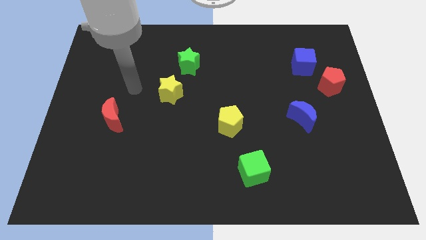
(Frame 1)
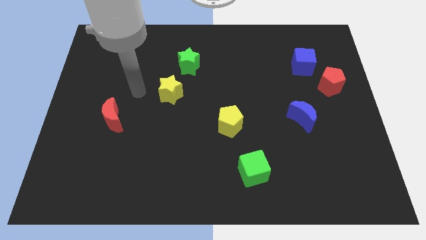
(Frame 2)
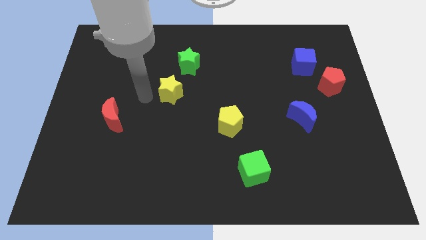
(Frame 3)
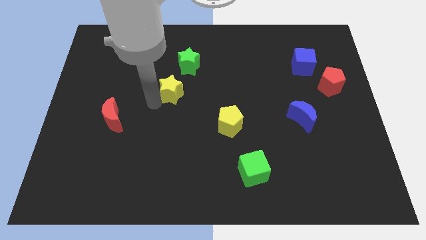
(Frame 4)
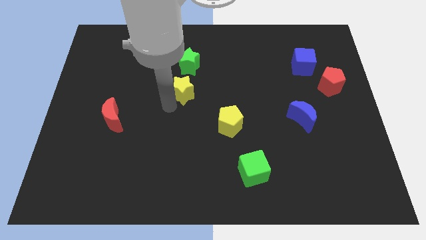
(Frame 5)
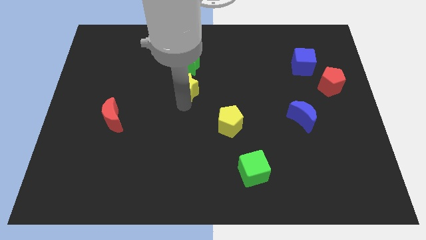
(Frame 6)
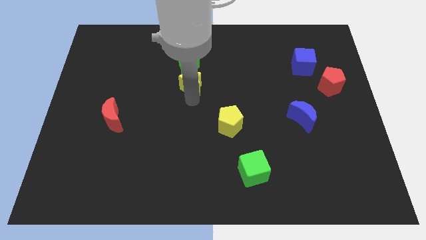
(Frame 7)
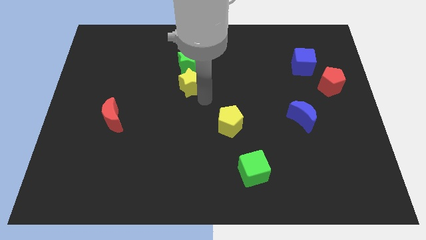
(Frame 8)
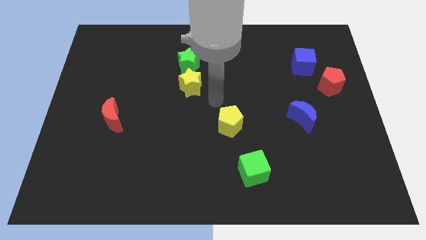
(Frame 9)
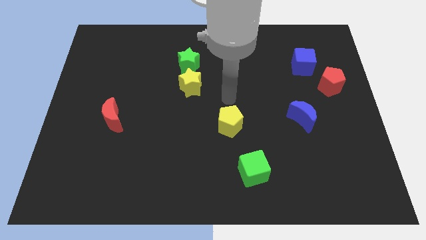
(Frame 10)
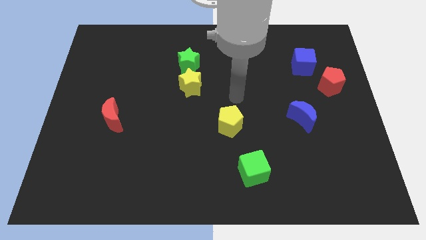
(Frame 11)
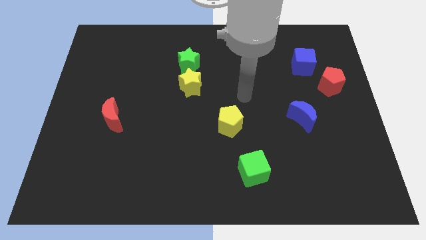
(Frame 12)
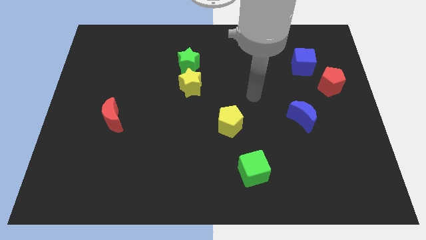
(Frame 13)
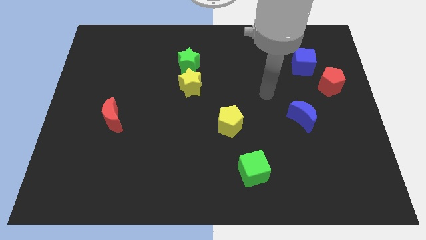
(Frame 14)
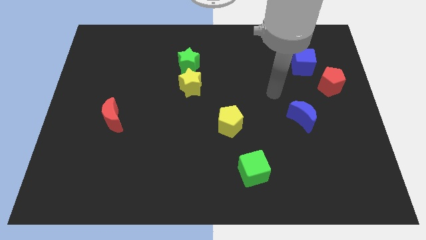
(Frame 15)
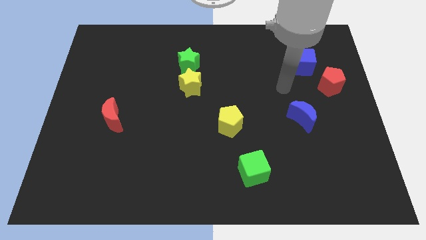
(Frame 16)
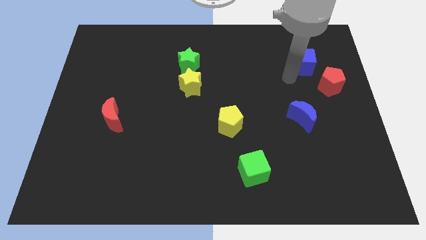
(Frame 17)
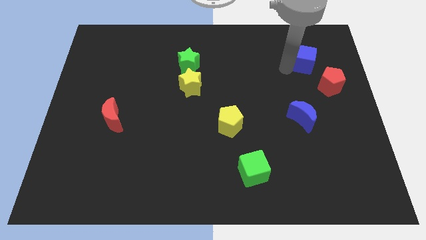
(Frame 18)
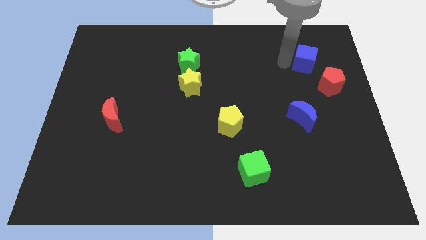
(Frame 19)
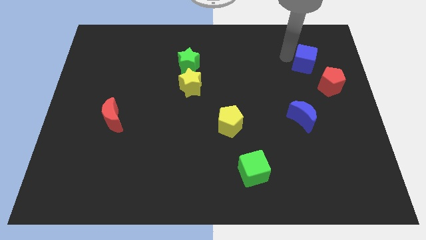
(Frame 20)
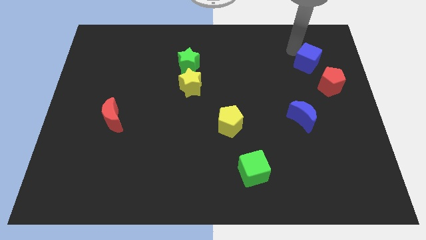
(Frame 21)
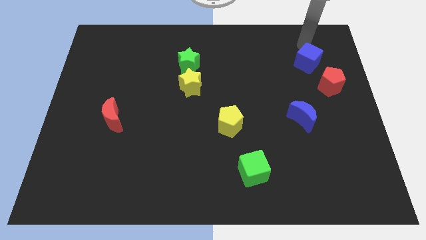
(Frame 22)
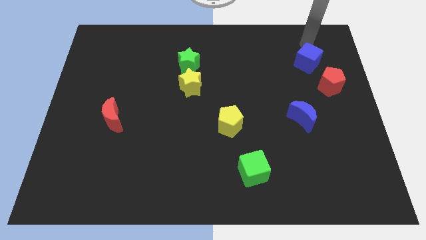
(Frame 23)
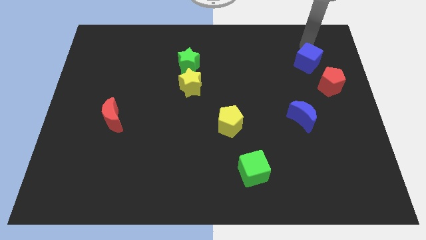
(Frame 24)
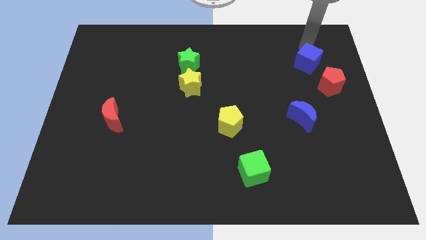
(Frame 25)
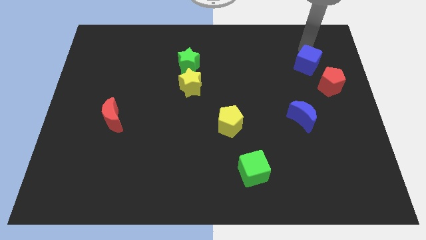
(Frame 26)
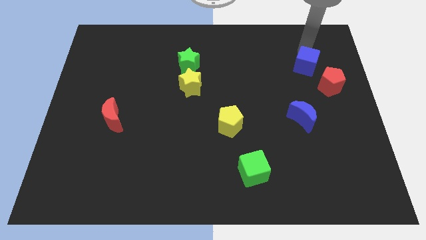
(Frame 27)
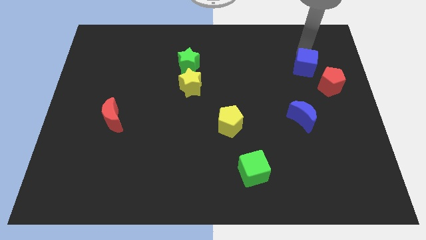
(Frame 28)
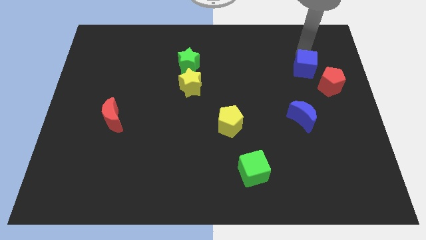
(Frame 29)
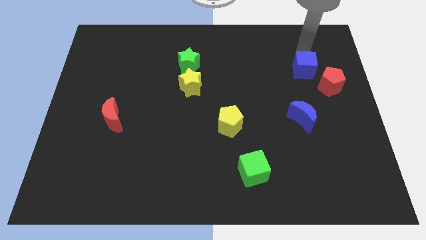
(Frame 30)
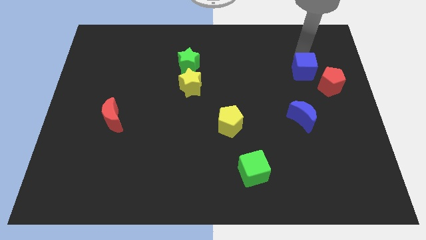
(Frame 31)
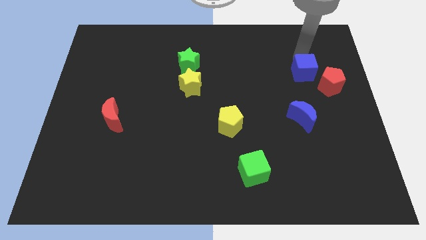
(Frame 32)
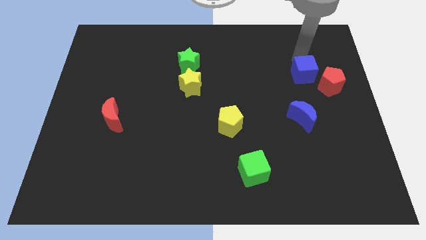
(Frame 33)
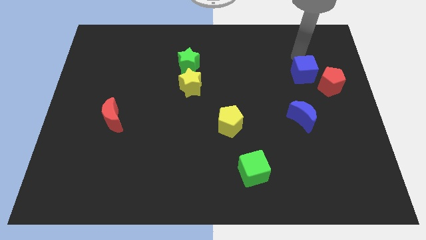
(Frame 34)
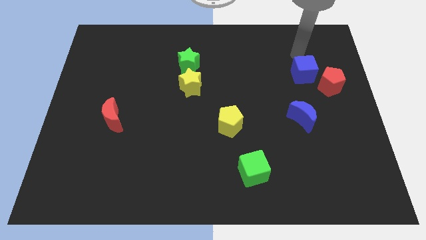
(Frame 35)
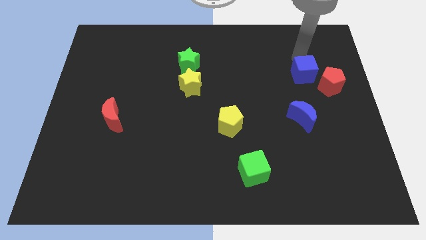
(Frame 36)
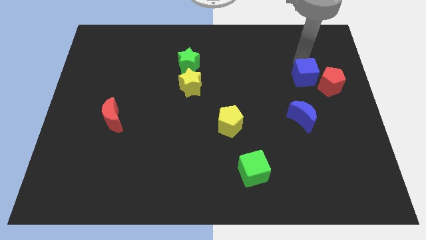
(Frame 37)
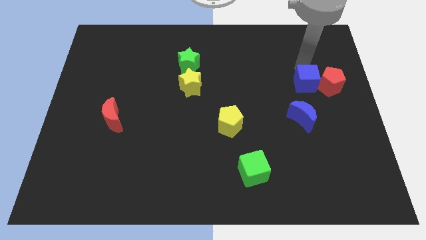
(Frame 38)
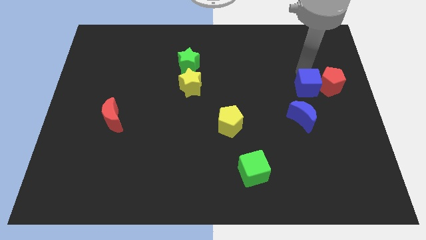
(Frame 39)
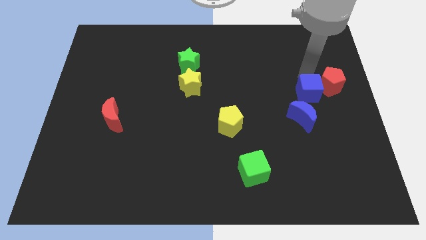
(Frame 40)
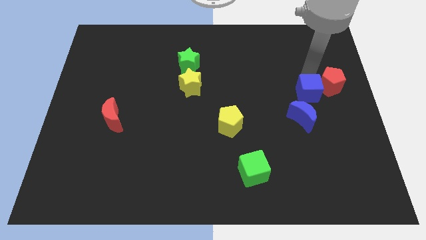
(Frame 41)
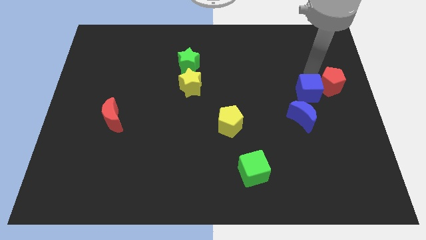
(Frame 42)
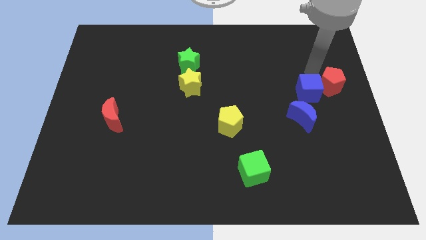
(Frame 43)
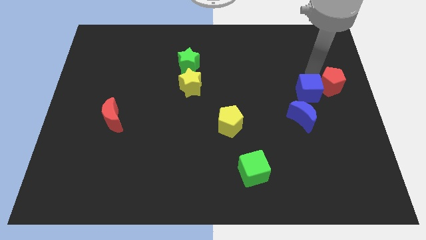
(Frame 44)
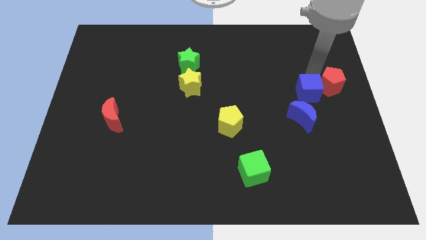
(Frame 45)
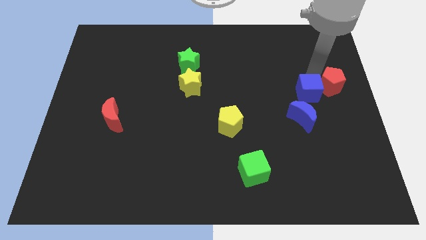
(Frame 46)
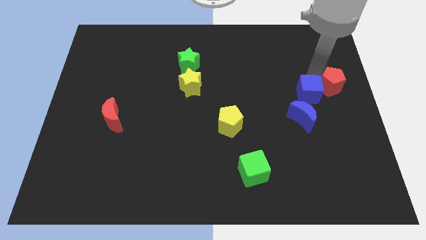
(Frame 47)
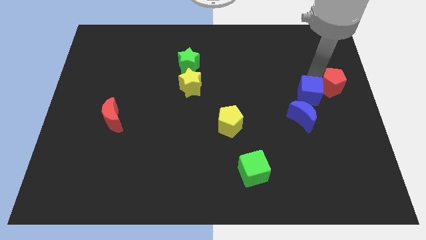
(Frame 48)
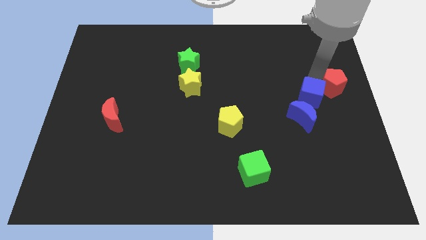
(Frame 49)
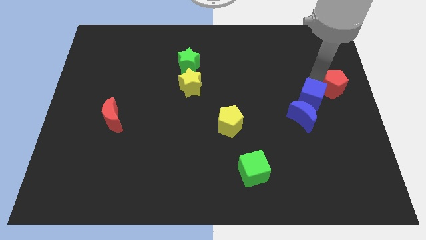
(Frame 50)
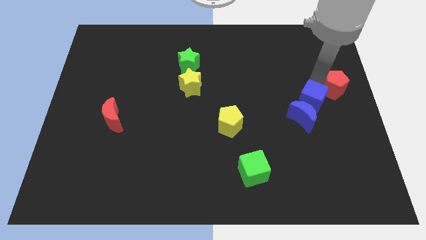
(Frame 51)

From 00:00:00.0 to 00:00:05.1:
push the blue cube to the blue moon

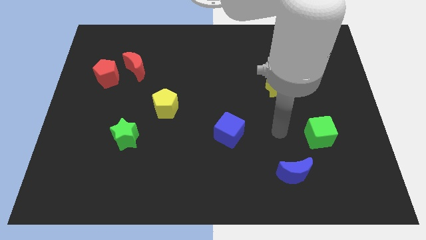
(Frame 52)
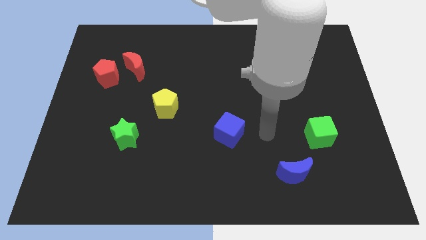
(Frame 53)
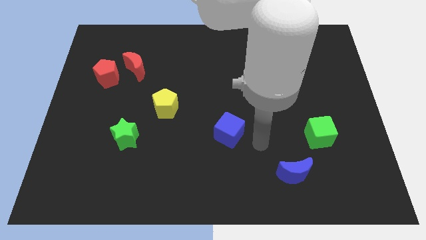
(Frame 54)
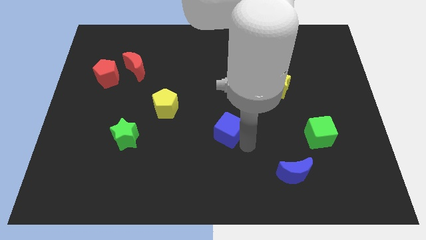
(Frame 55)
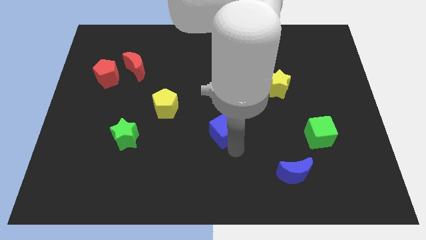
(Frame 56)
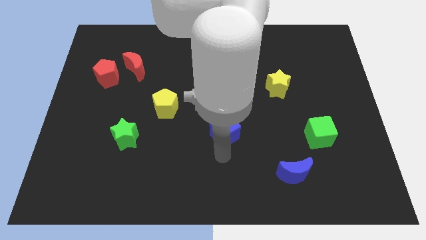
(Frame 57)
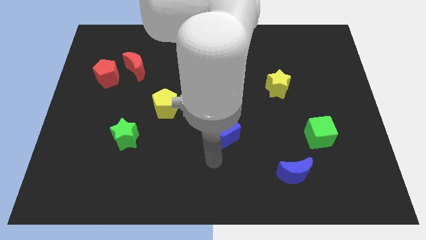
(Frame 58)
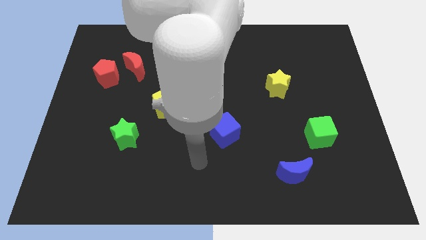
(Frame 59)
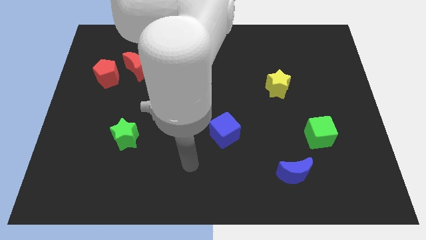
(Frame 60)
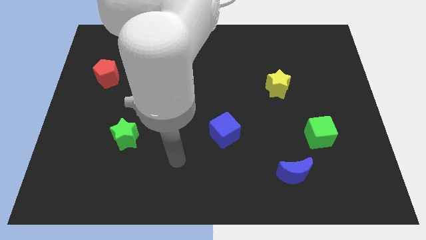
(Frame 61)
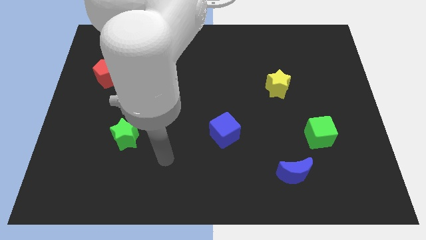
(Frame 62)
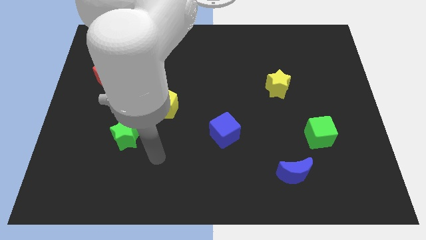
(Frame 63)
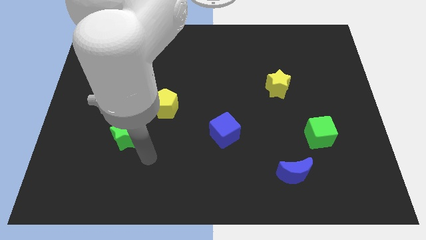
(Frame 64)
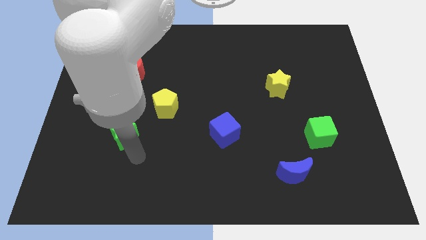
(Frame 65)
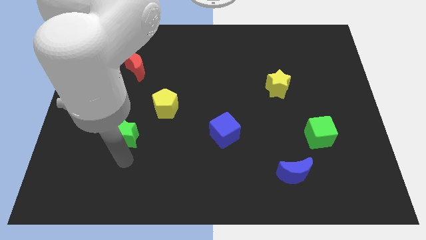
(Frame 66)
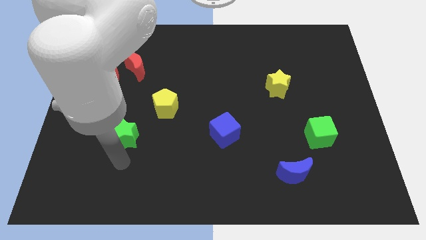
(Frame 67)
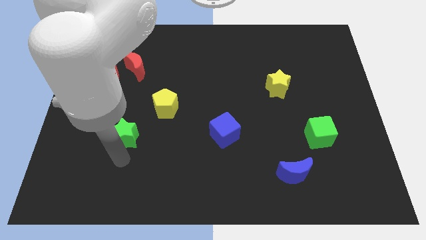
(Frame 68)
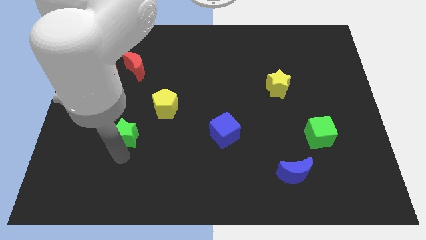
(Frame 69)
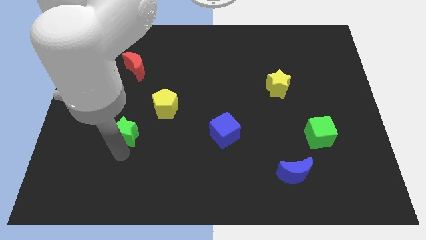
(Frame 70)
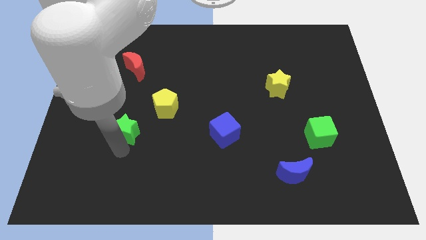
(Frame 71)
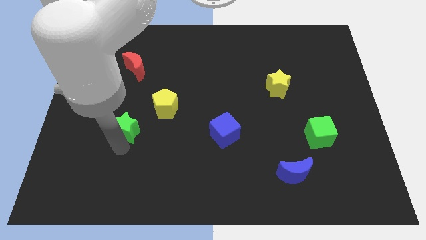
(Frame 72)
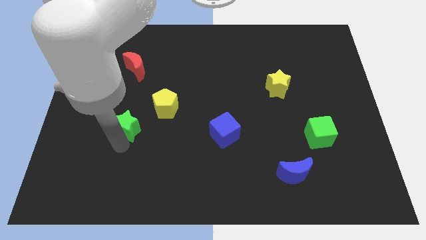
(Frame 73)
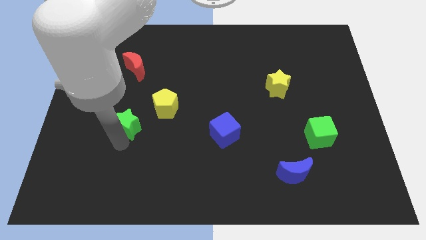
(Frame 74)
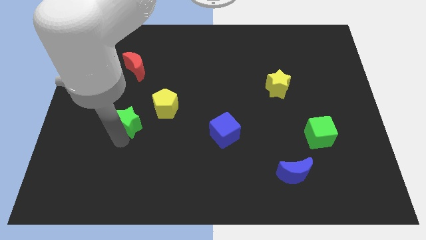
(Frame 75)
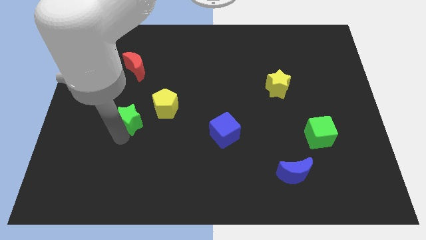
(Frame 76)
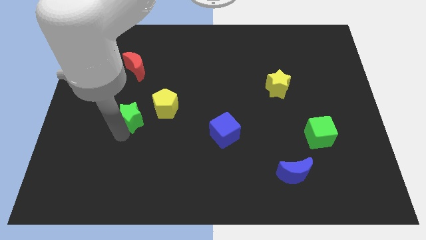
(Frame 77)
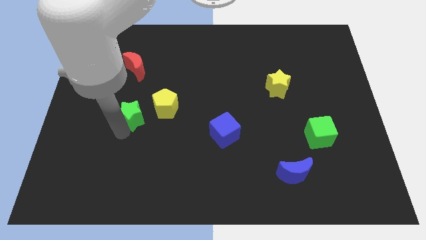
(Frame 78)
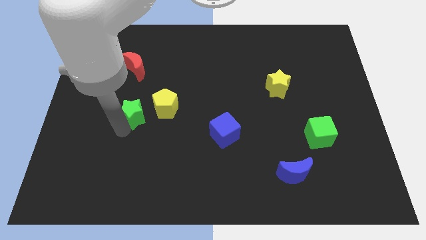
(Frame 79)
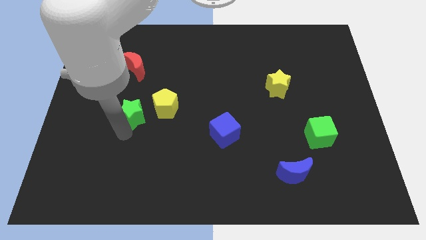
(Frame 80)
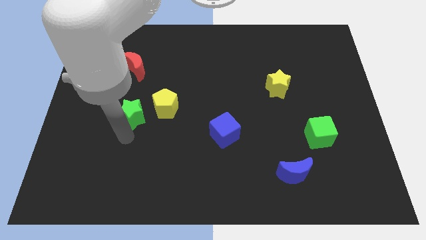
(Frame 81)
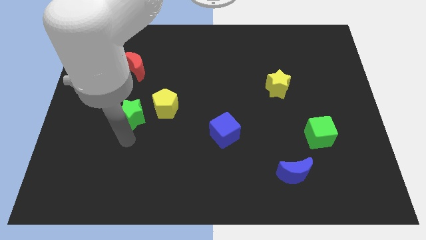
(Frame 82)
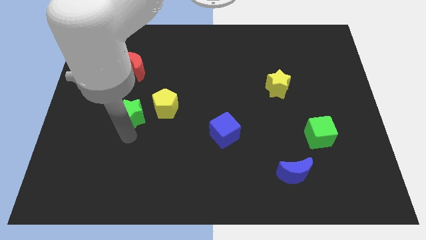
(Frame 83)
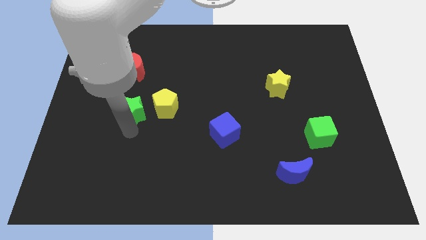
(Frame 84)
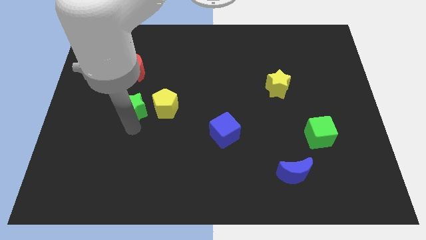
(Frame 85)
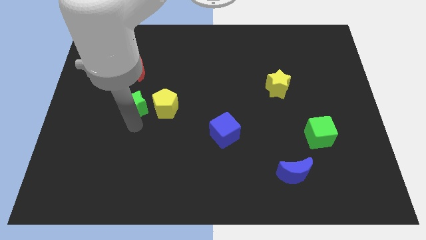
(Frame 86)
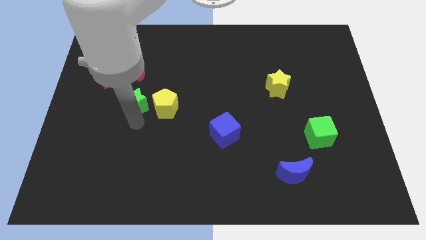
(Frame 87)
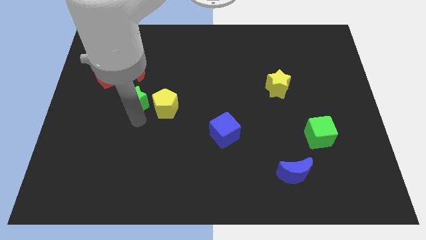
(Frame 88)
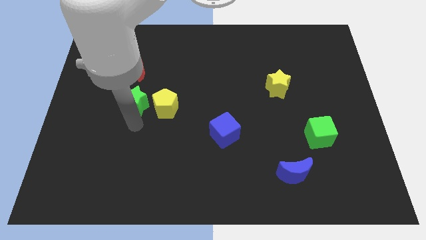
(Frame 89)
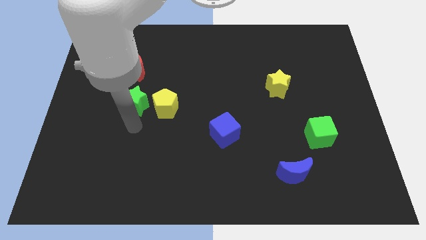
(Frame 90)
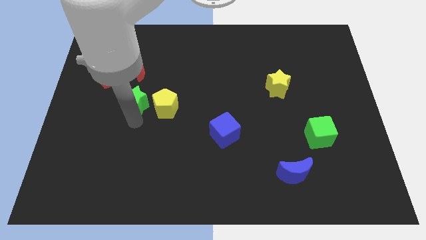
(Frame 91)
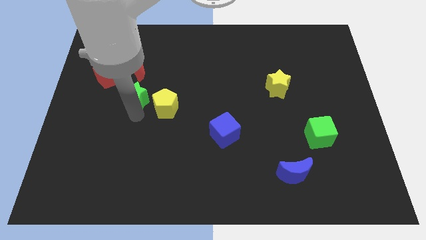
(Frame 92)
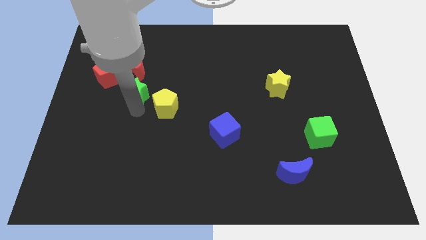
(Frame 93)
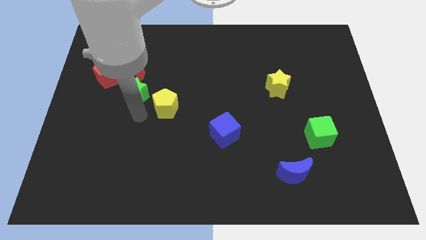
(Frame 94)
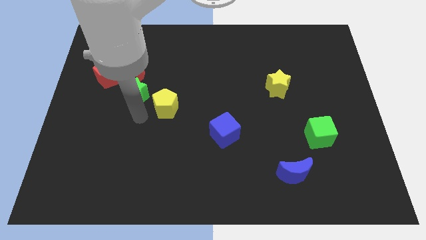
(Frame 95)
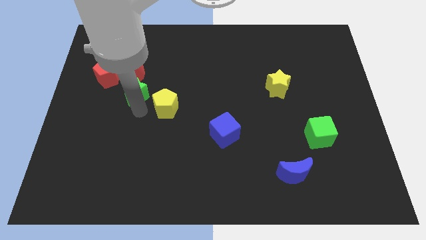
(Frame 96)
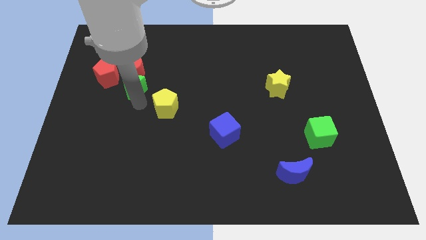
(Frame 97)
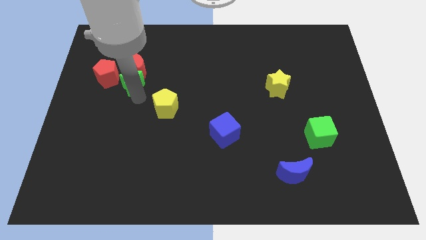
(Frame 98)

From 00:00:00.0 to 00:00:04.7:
put the green star next to the red moon
